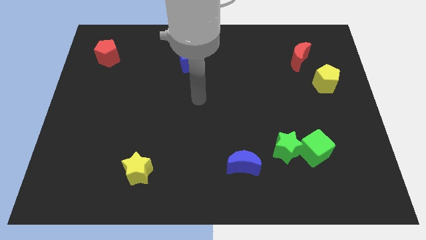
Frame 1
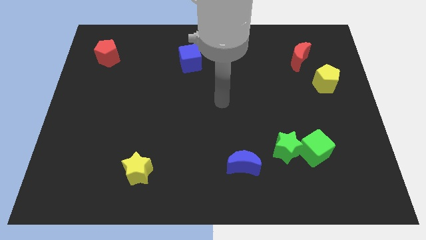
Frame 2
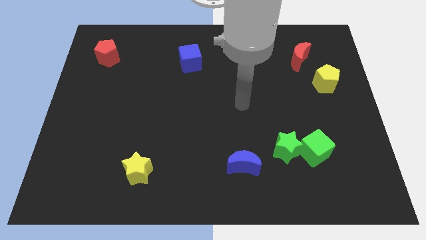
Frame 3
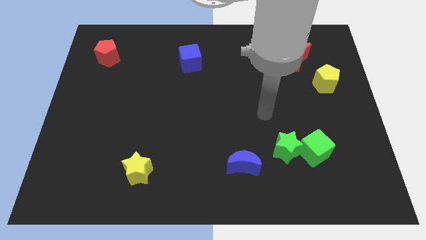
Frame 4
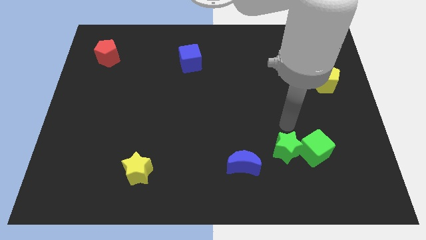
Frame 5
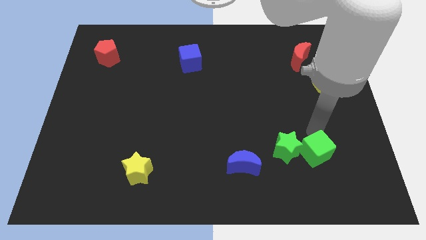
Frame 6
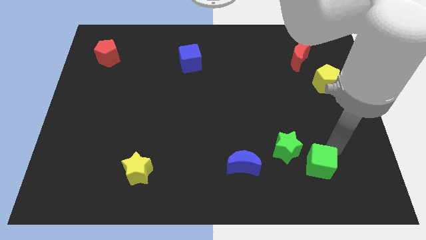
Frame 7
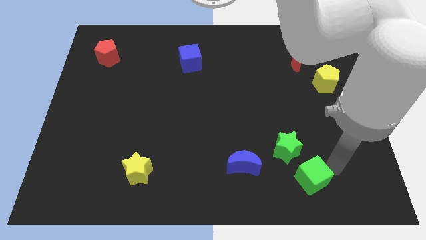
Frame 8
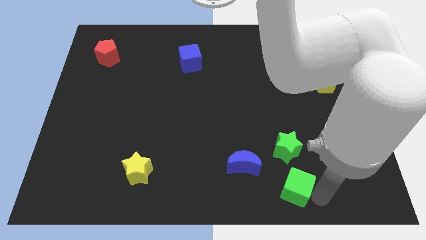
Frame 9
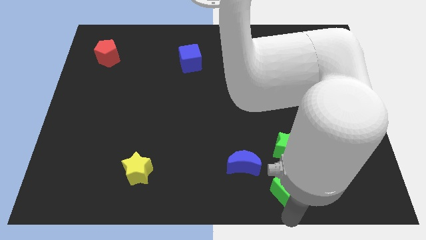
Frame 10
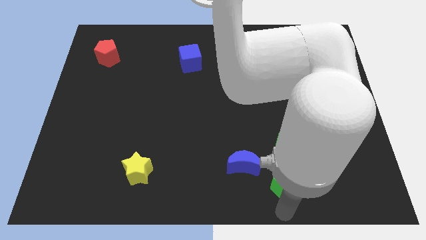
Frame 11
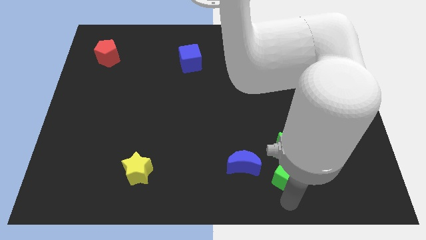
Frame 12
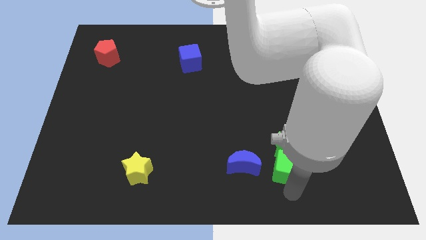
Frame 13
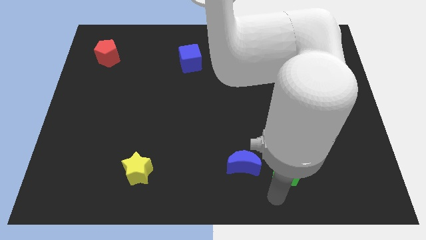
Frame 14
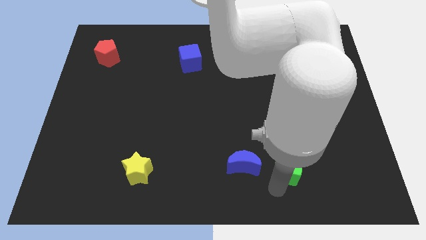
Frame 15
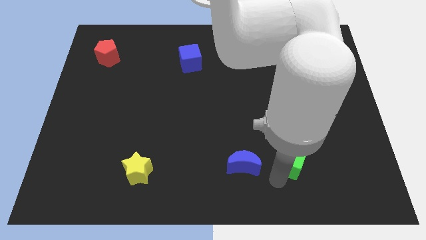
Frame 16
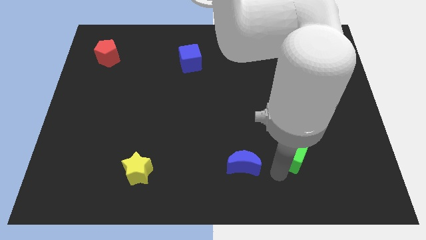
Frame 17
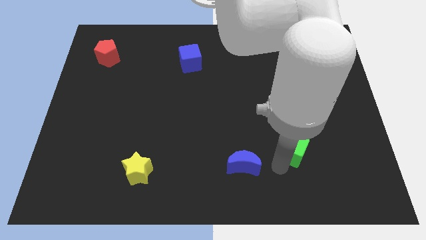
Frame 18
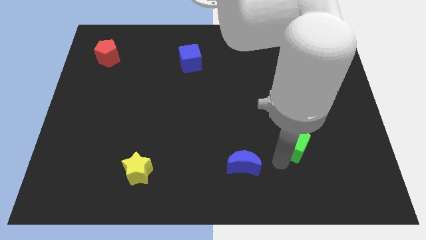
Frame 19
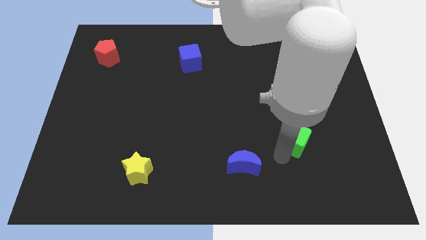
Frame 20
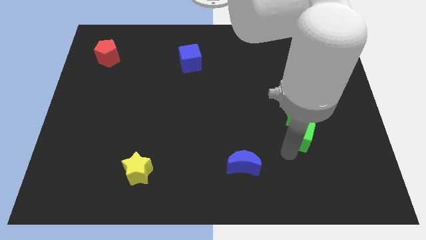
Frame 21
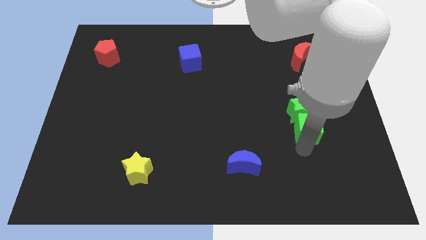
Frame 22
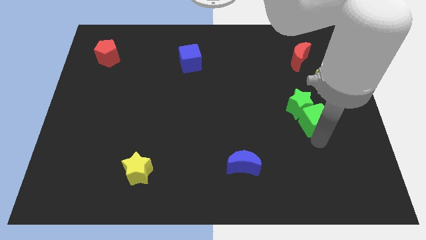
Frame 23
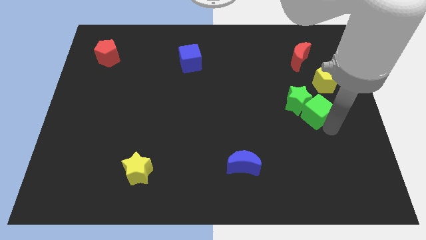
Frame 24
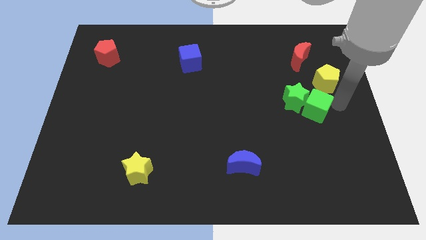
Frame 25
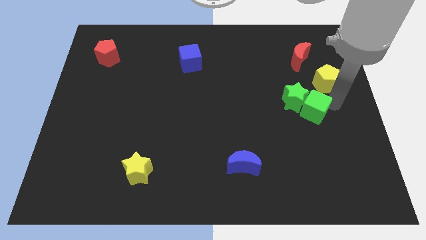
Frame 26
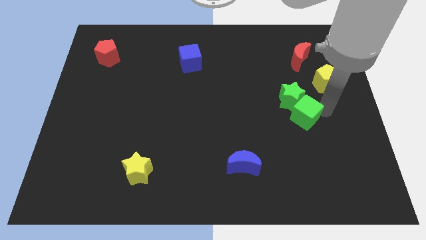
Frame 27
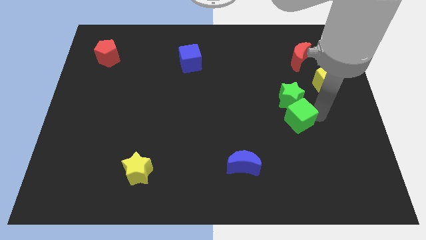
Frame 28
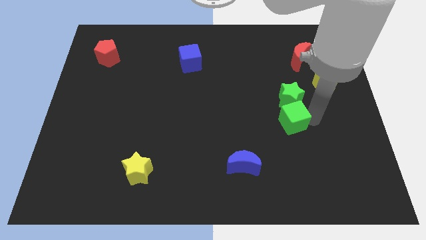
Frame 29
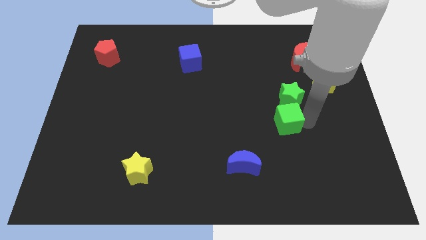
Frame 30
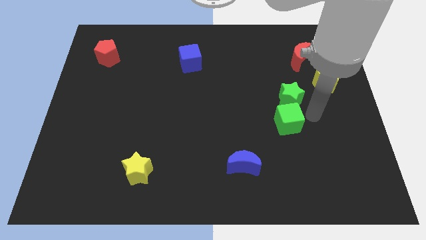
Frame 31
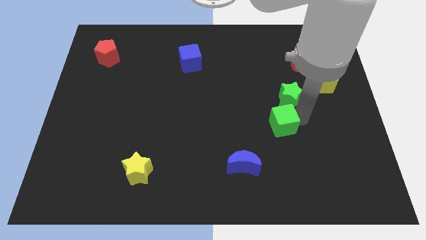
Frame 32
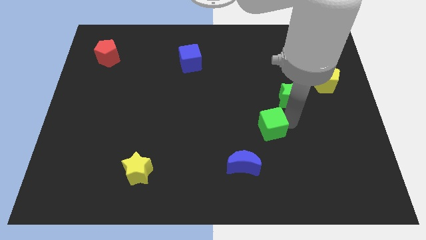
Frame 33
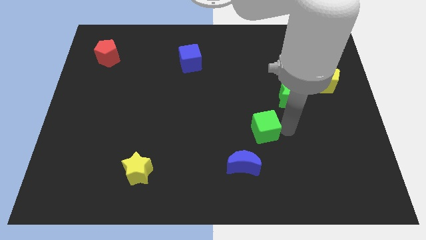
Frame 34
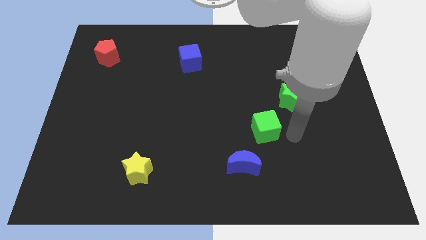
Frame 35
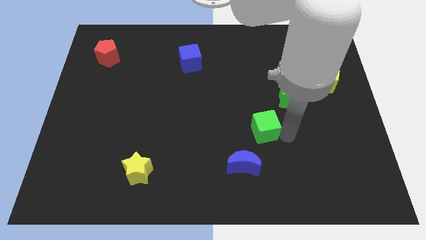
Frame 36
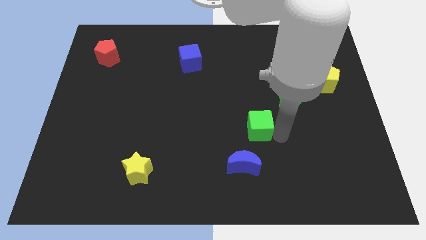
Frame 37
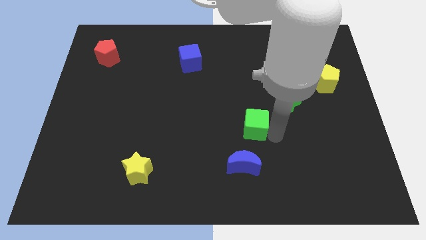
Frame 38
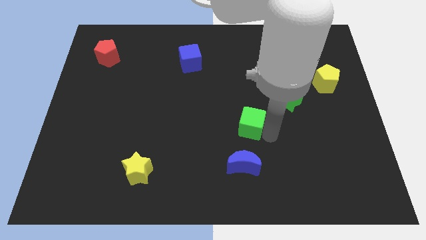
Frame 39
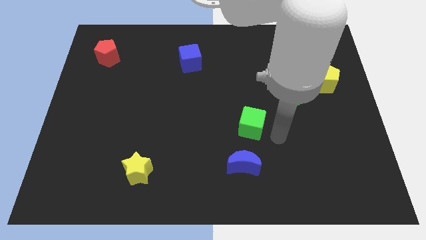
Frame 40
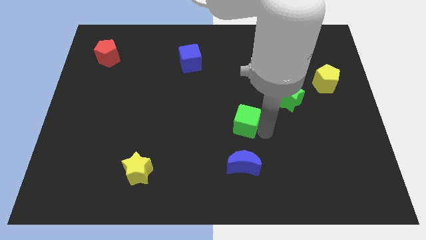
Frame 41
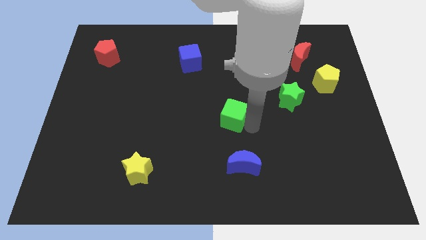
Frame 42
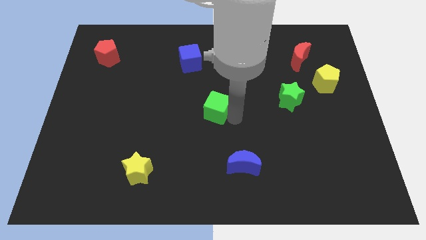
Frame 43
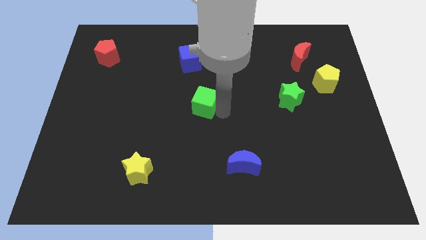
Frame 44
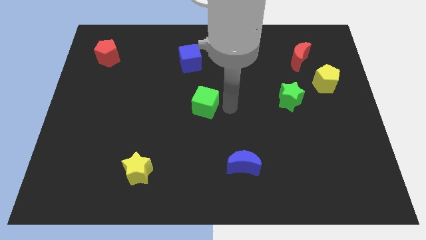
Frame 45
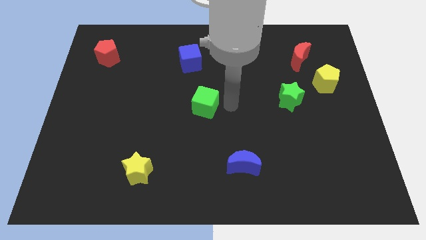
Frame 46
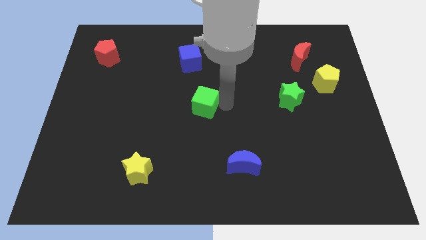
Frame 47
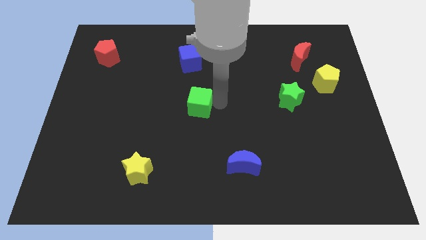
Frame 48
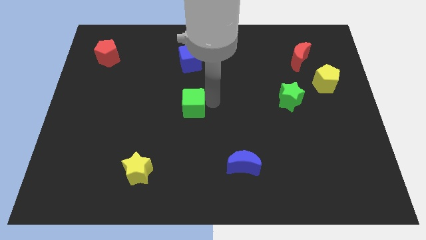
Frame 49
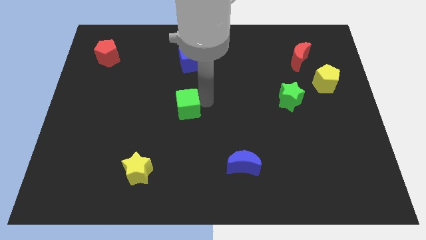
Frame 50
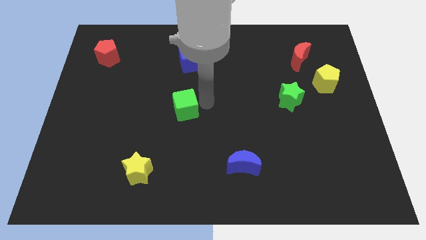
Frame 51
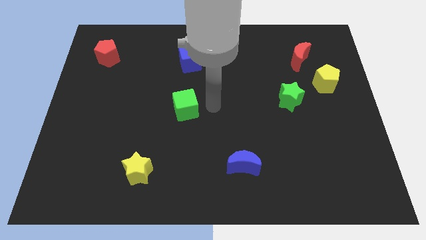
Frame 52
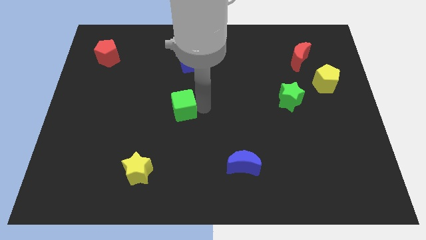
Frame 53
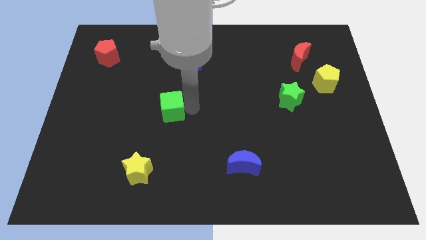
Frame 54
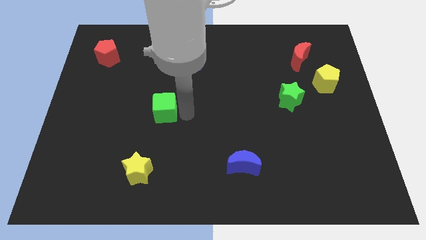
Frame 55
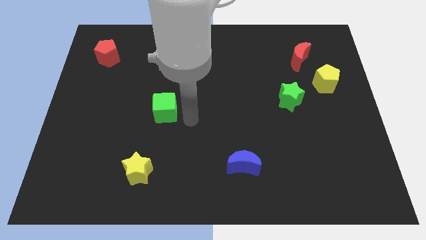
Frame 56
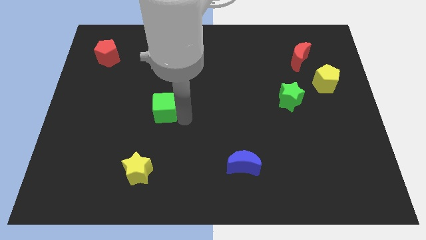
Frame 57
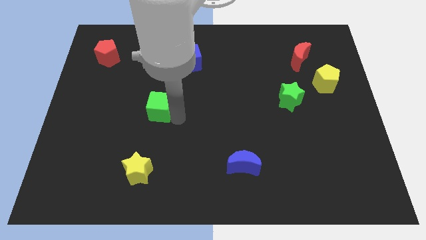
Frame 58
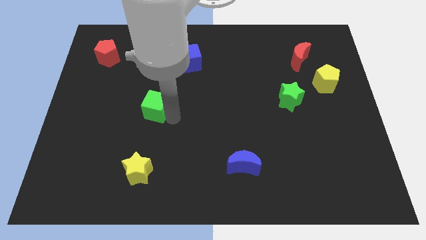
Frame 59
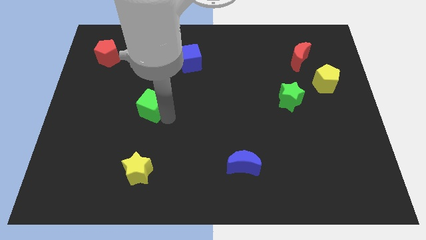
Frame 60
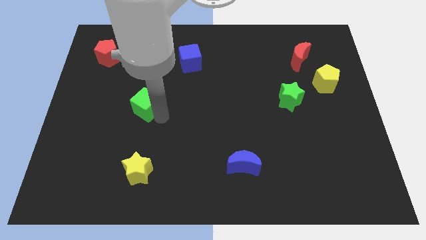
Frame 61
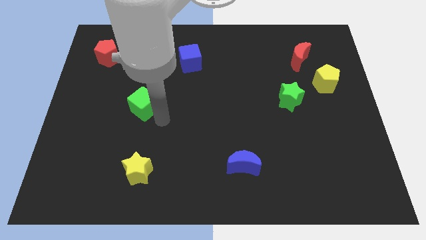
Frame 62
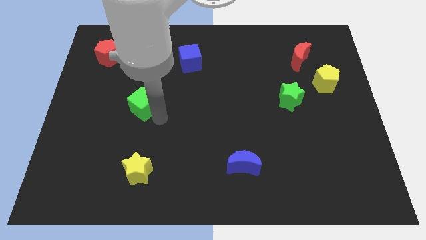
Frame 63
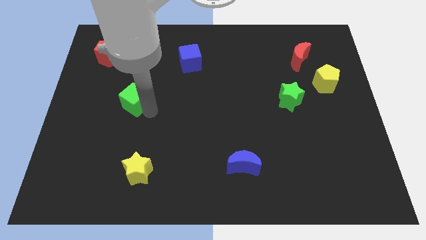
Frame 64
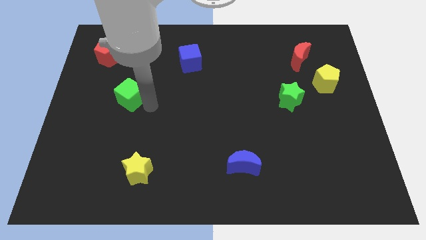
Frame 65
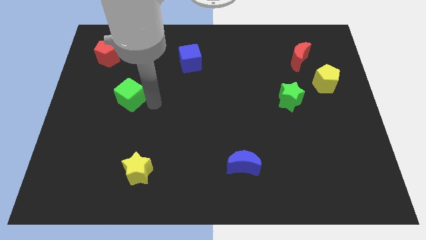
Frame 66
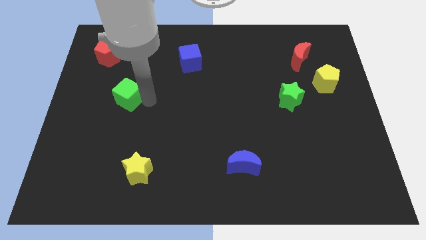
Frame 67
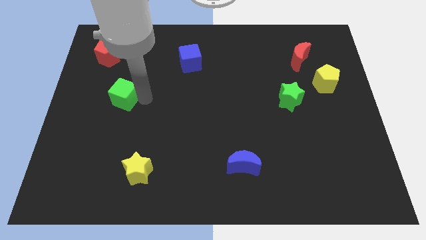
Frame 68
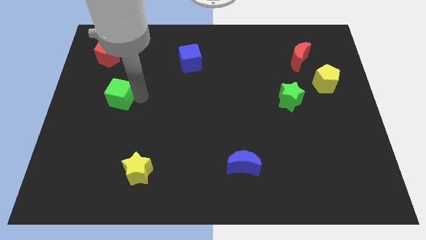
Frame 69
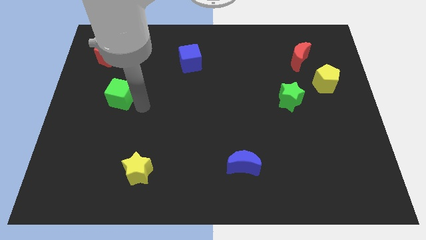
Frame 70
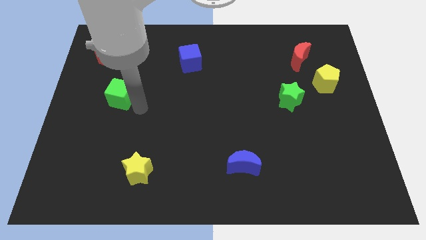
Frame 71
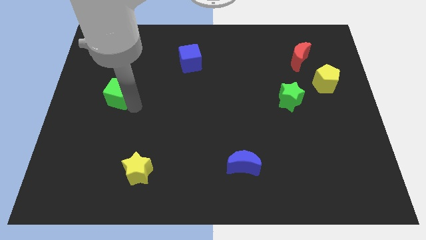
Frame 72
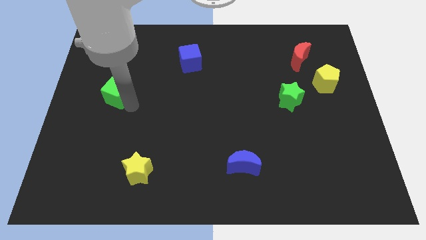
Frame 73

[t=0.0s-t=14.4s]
put the green cube below the red pentagon
